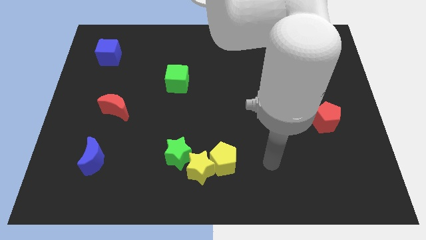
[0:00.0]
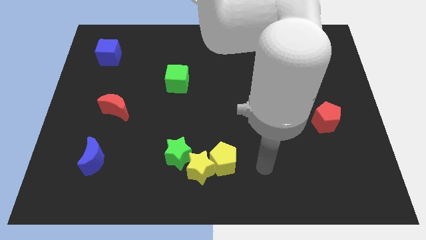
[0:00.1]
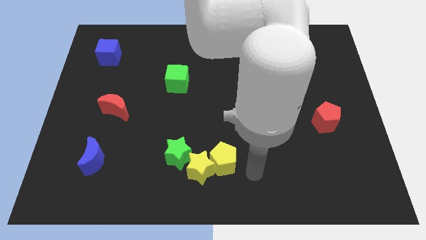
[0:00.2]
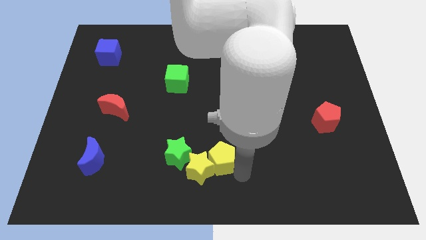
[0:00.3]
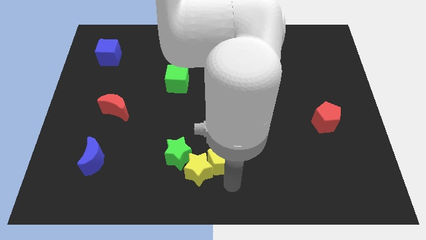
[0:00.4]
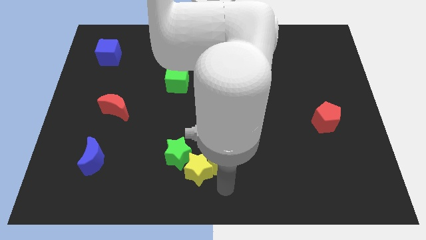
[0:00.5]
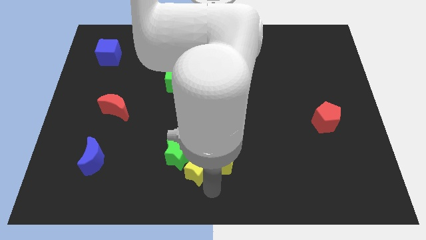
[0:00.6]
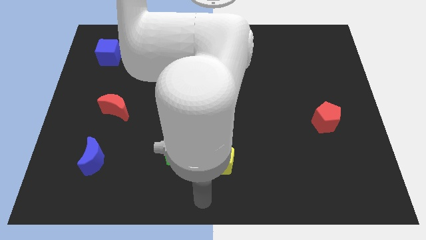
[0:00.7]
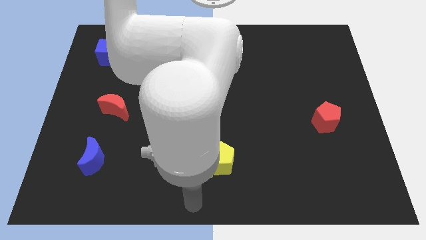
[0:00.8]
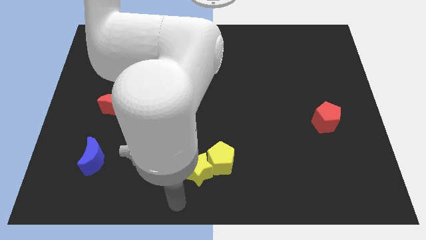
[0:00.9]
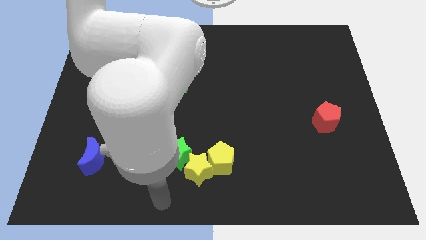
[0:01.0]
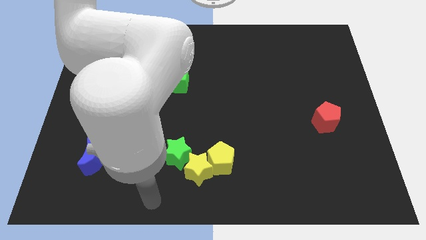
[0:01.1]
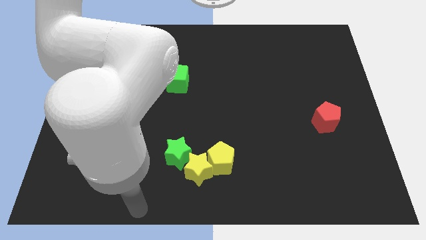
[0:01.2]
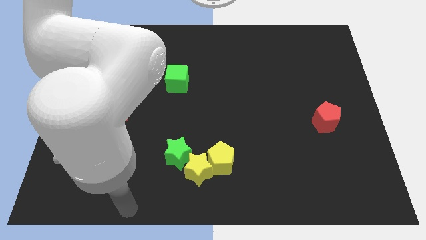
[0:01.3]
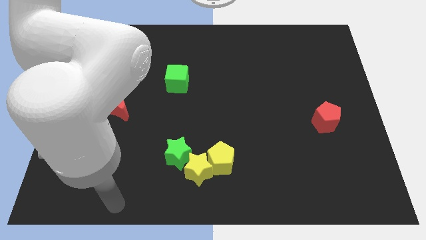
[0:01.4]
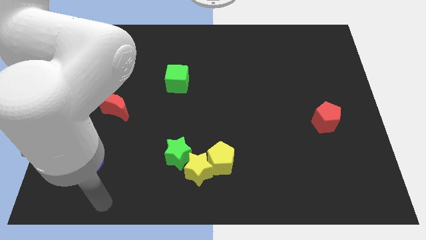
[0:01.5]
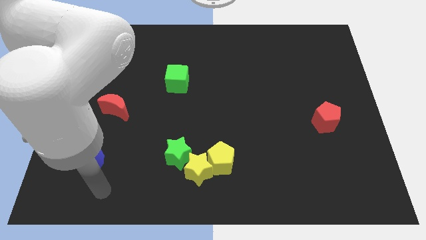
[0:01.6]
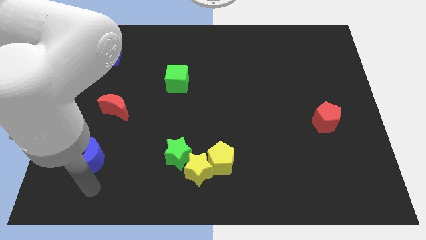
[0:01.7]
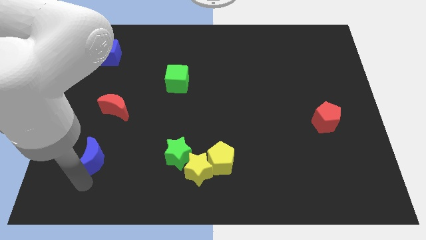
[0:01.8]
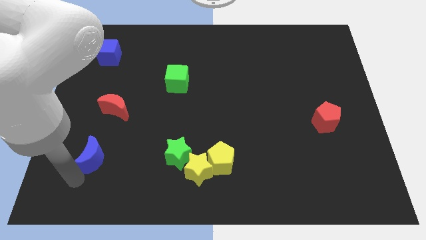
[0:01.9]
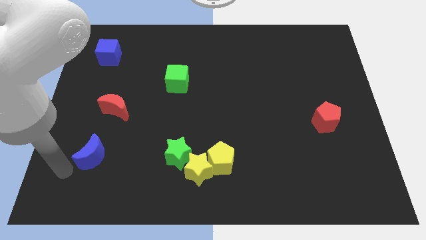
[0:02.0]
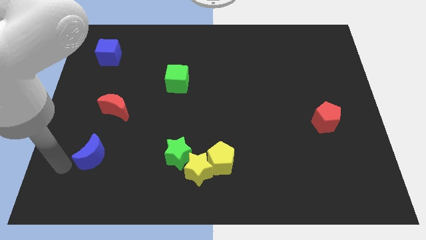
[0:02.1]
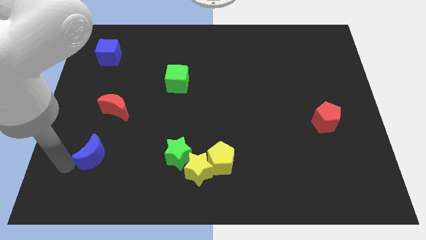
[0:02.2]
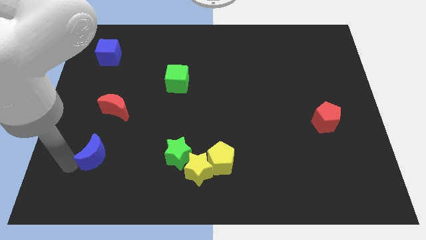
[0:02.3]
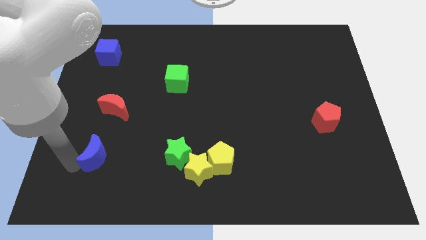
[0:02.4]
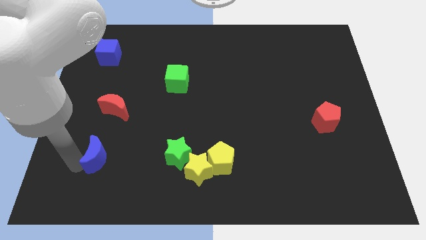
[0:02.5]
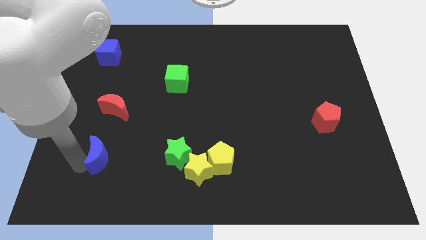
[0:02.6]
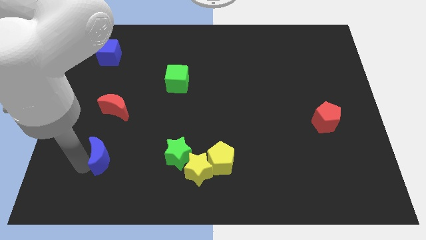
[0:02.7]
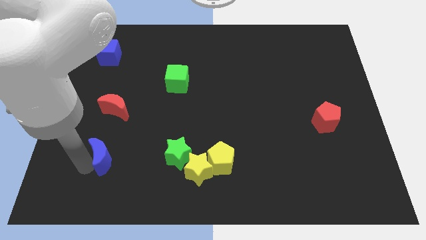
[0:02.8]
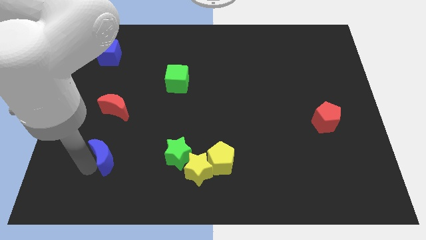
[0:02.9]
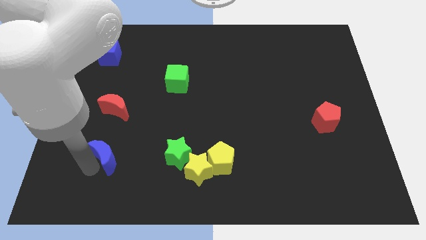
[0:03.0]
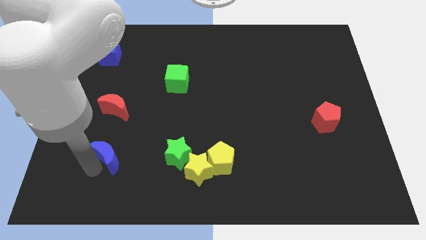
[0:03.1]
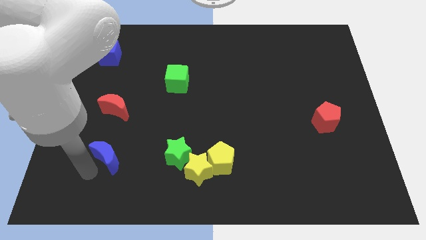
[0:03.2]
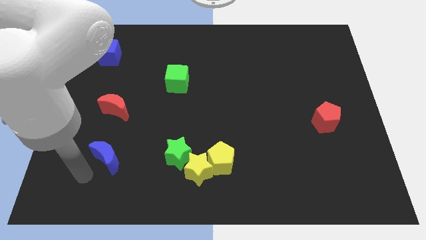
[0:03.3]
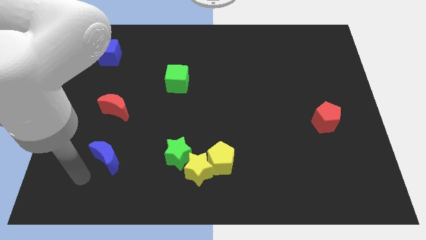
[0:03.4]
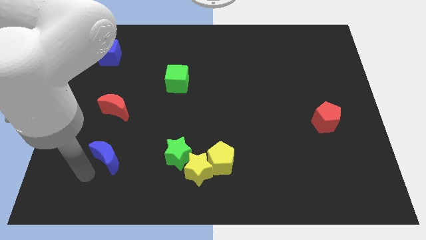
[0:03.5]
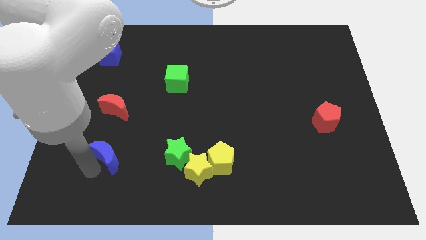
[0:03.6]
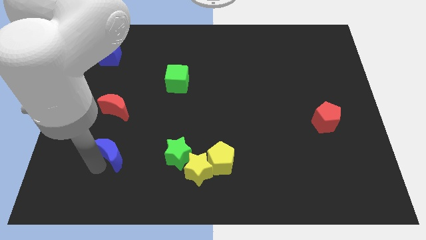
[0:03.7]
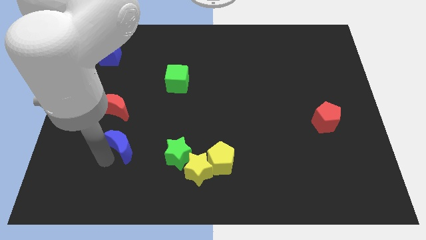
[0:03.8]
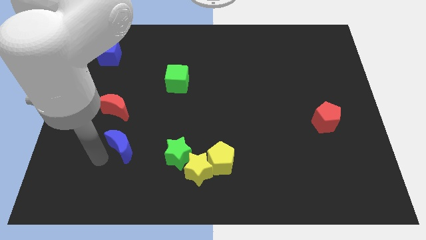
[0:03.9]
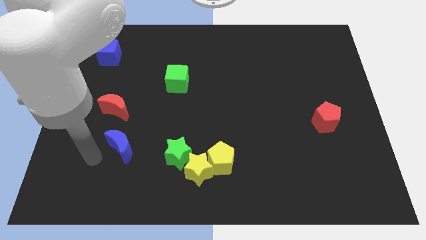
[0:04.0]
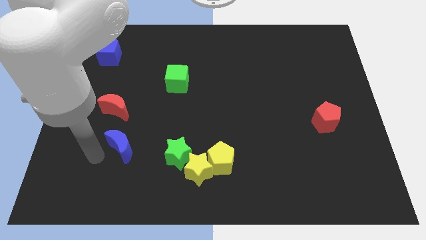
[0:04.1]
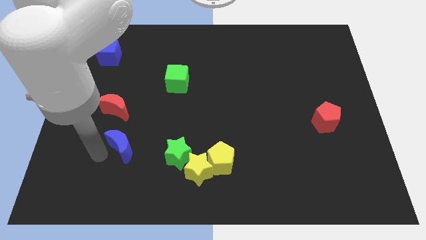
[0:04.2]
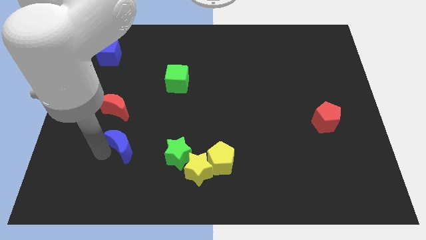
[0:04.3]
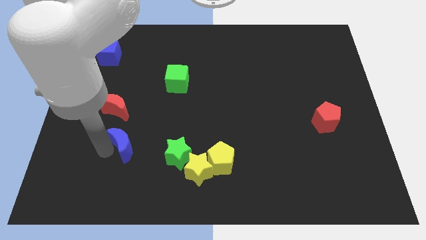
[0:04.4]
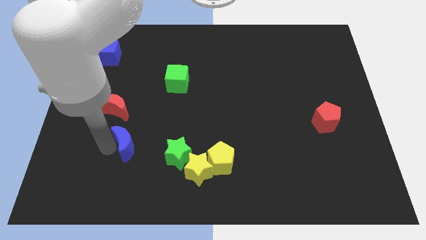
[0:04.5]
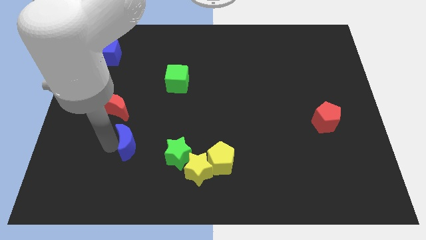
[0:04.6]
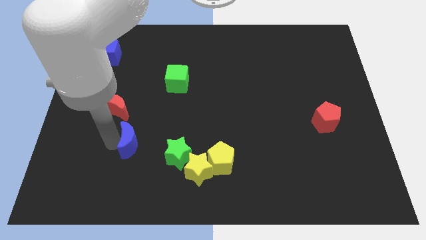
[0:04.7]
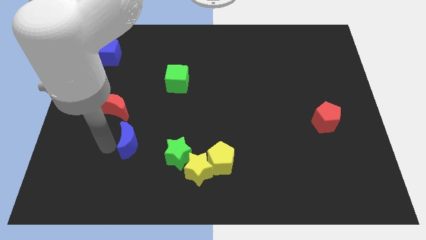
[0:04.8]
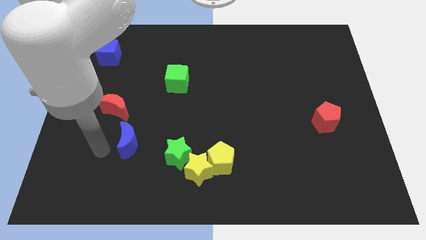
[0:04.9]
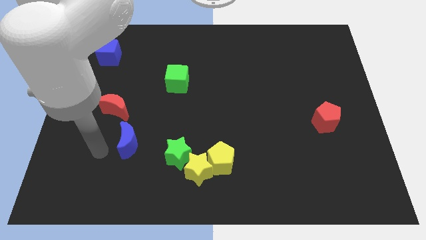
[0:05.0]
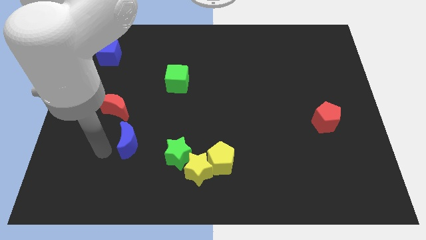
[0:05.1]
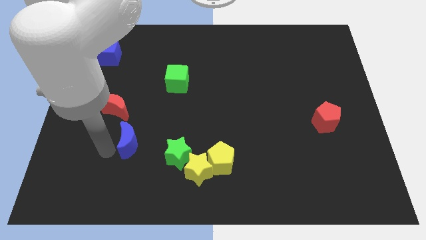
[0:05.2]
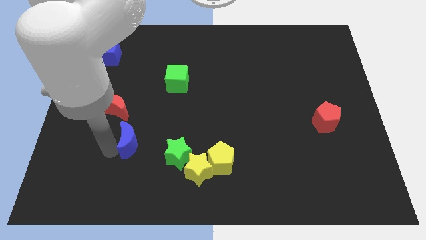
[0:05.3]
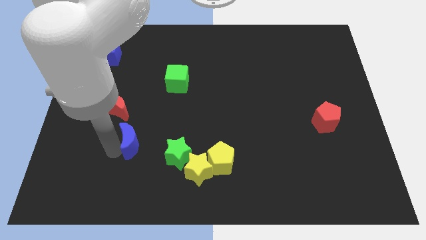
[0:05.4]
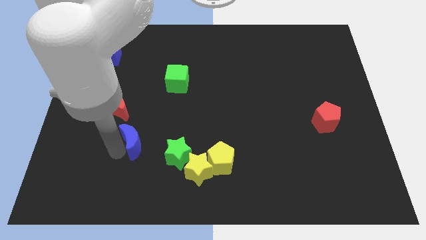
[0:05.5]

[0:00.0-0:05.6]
move the blue moon diagonally up and to the left of the green star
